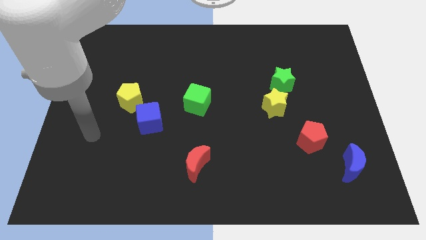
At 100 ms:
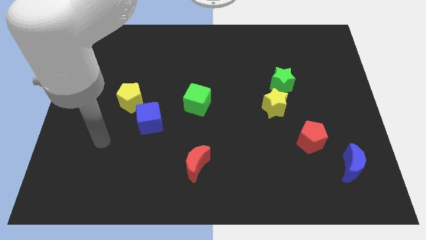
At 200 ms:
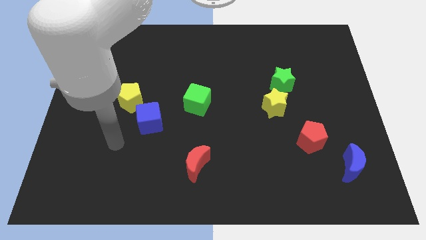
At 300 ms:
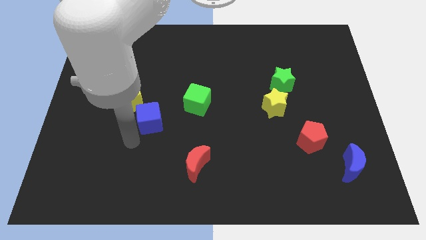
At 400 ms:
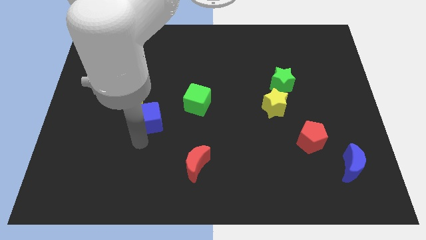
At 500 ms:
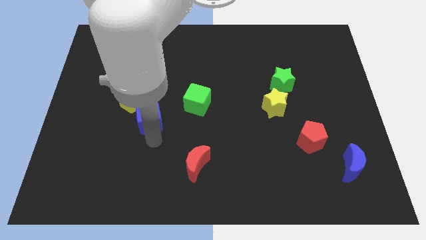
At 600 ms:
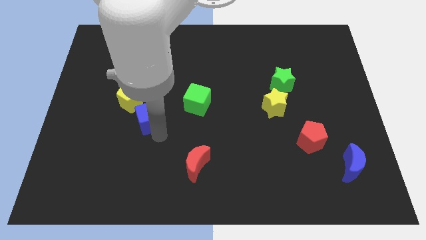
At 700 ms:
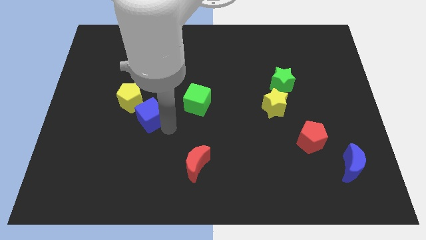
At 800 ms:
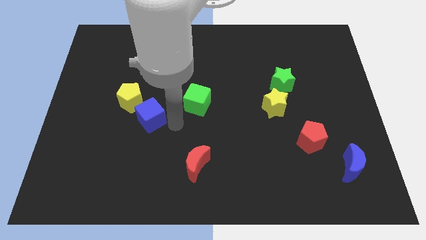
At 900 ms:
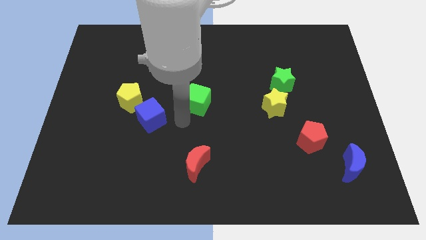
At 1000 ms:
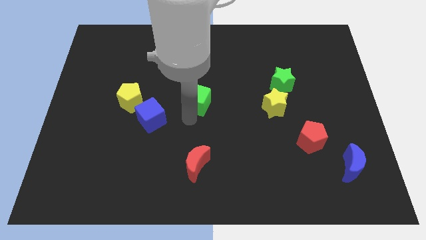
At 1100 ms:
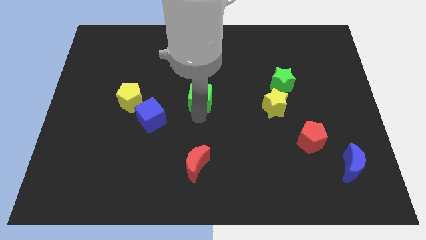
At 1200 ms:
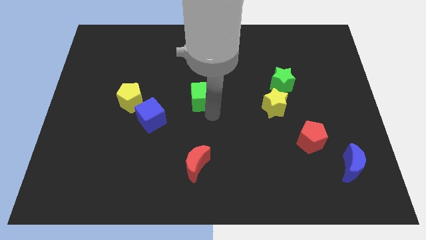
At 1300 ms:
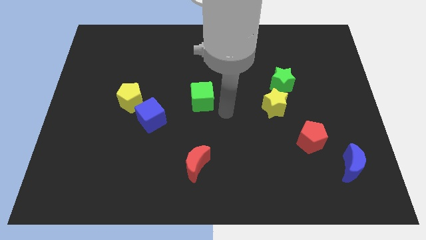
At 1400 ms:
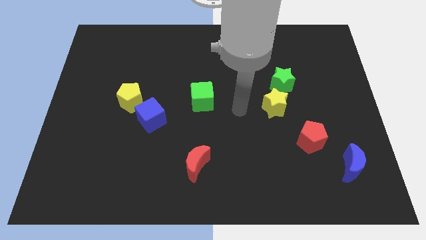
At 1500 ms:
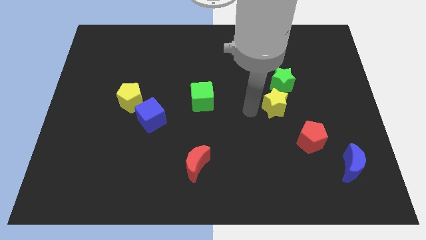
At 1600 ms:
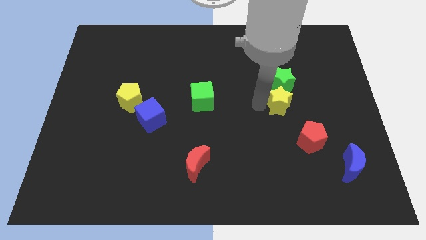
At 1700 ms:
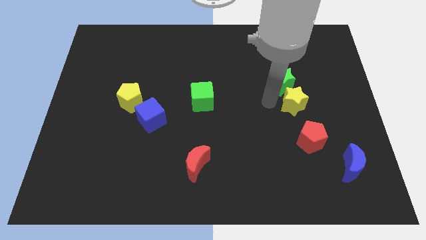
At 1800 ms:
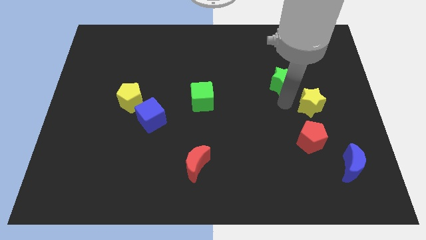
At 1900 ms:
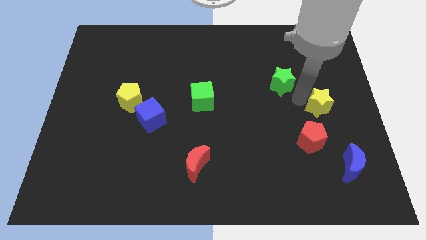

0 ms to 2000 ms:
separate the green star from the yellow star

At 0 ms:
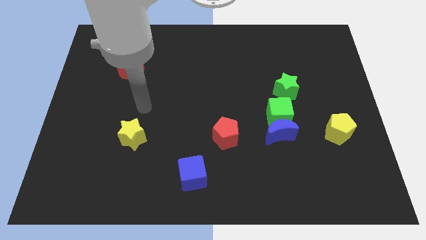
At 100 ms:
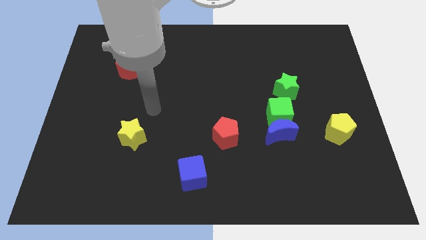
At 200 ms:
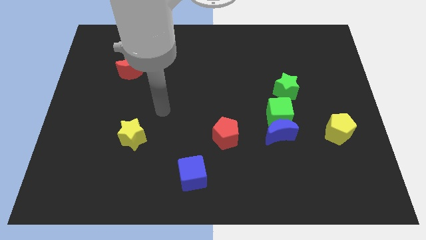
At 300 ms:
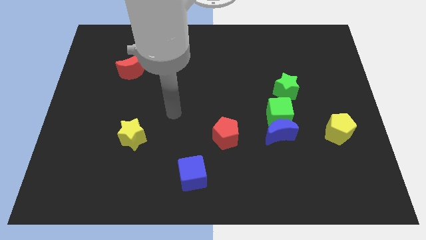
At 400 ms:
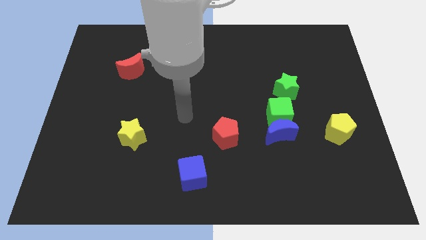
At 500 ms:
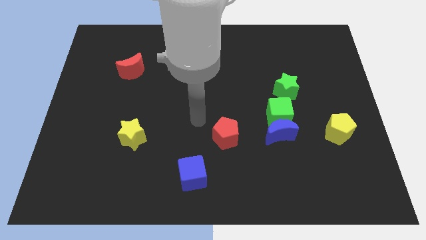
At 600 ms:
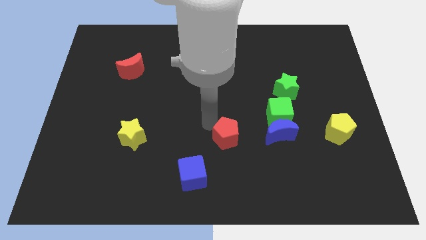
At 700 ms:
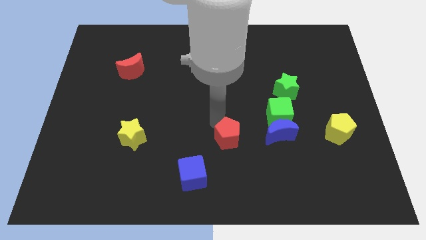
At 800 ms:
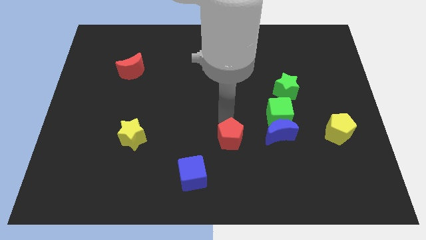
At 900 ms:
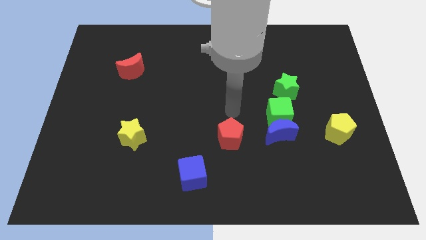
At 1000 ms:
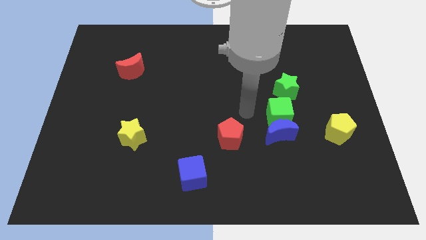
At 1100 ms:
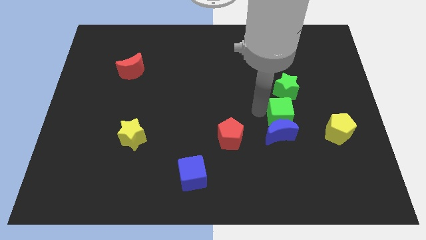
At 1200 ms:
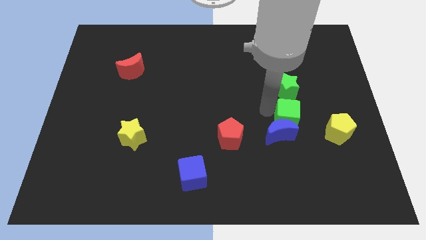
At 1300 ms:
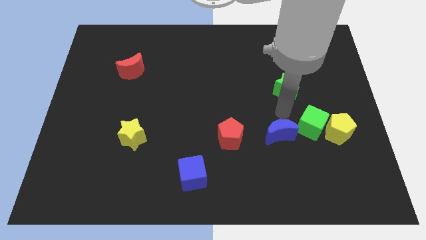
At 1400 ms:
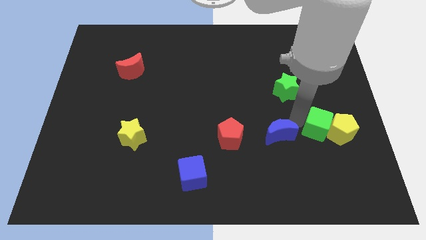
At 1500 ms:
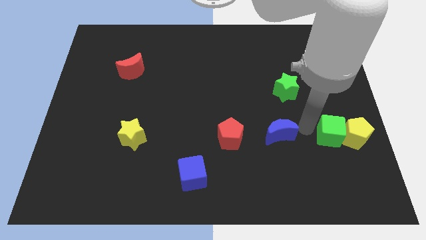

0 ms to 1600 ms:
move the blue moon away from the green cube

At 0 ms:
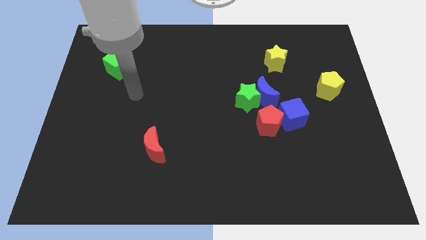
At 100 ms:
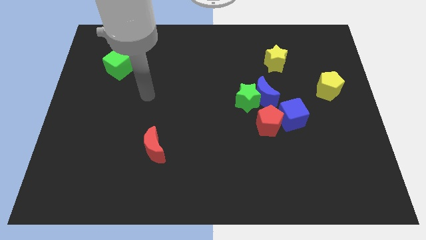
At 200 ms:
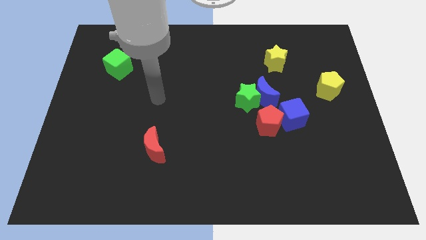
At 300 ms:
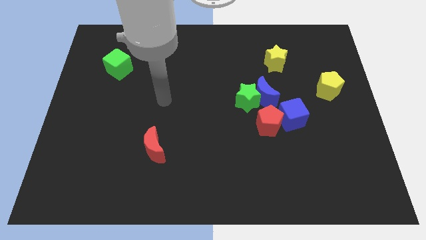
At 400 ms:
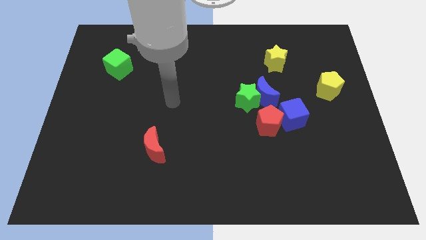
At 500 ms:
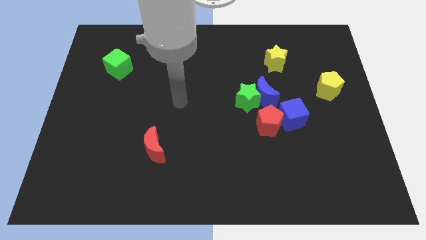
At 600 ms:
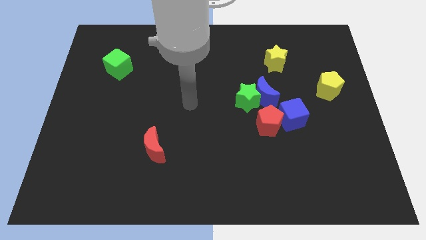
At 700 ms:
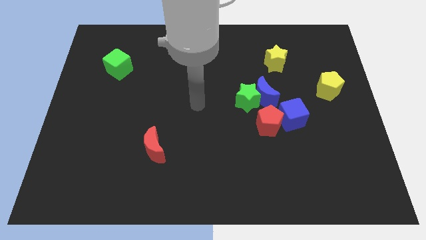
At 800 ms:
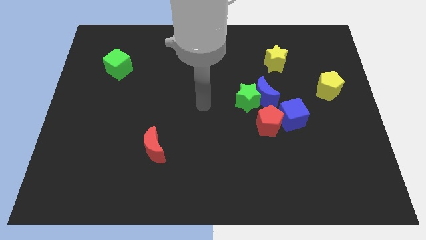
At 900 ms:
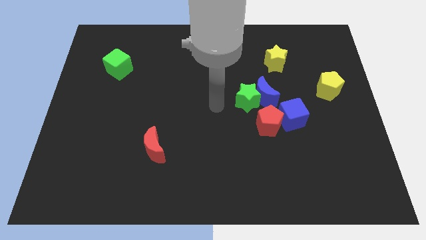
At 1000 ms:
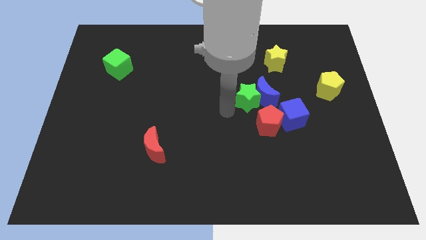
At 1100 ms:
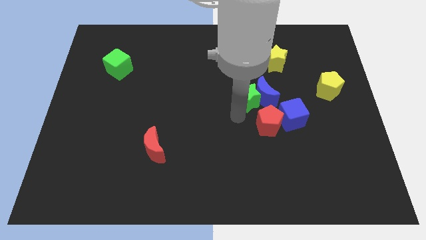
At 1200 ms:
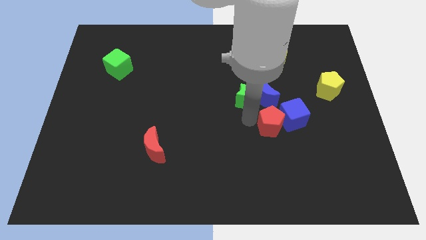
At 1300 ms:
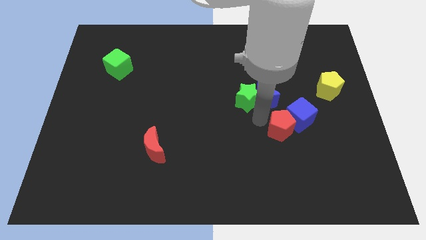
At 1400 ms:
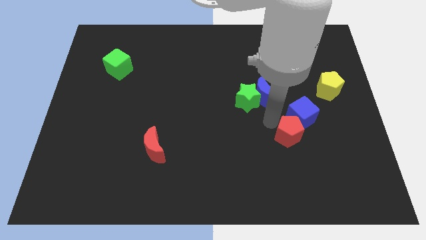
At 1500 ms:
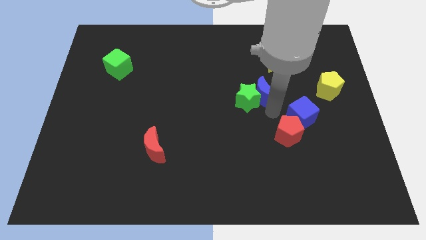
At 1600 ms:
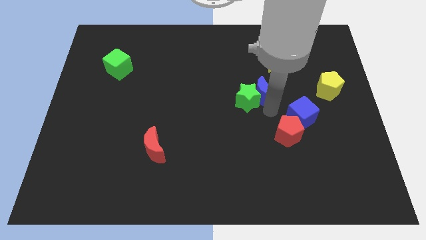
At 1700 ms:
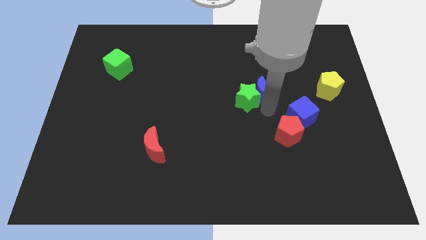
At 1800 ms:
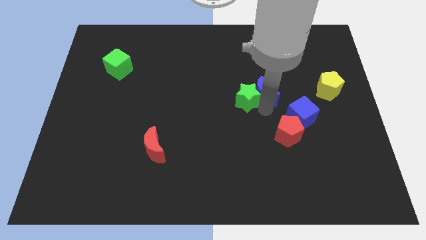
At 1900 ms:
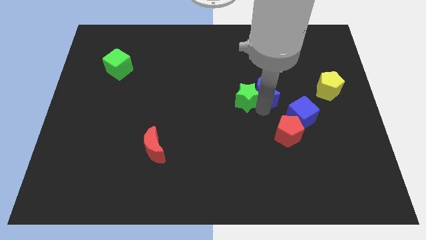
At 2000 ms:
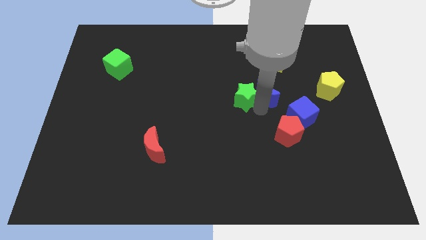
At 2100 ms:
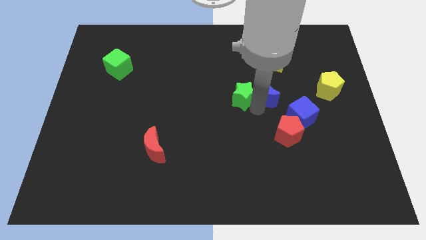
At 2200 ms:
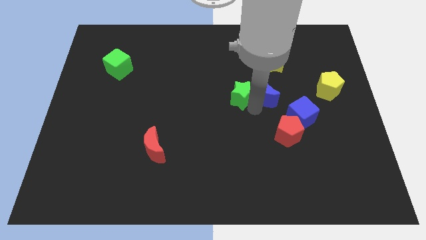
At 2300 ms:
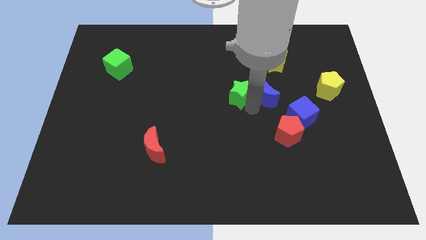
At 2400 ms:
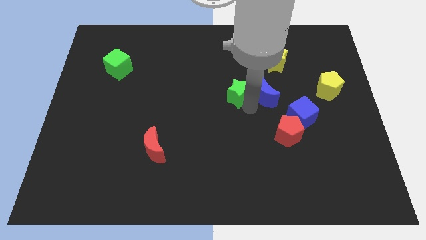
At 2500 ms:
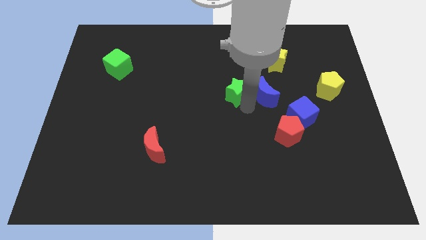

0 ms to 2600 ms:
separate the green star from the blue moon and red pentagon

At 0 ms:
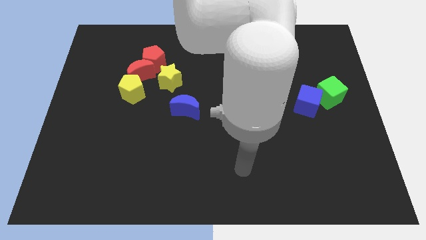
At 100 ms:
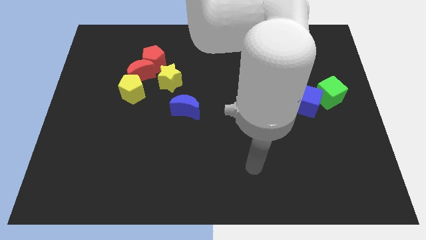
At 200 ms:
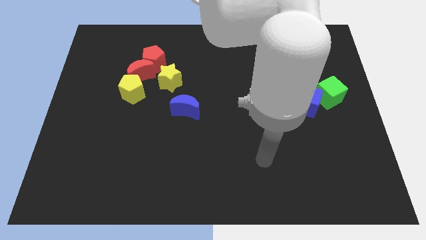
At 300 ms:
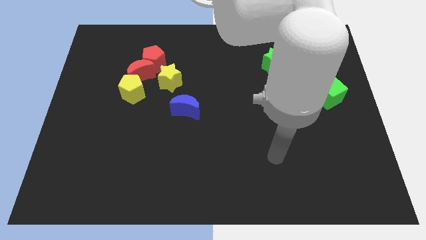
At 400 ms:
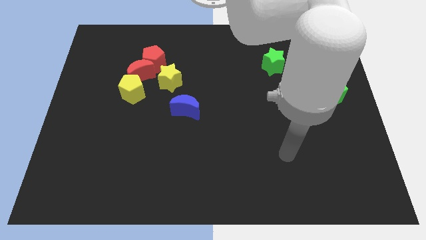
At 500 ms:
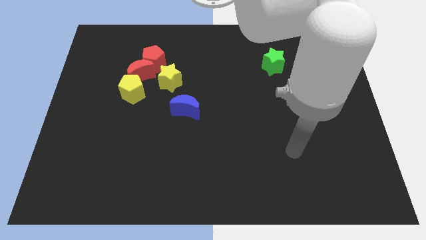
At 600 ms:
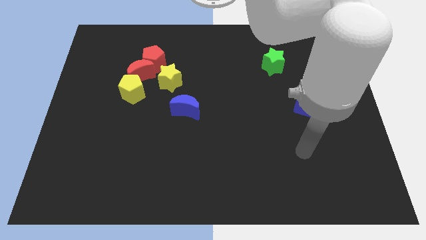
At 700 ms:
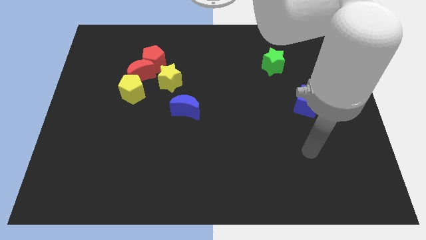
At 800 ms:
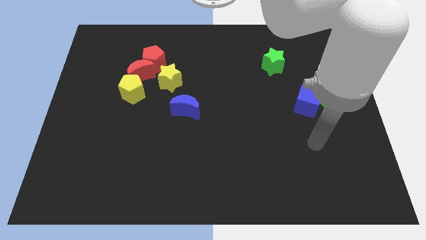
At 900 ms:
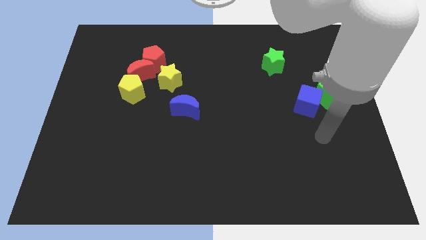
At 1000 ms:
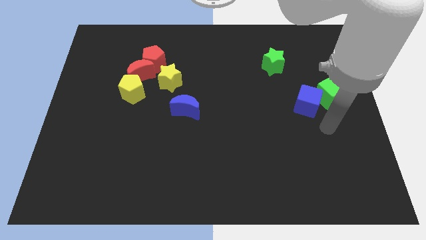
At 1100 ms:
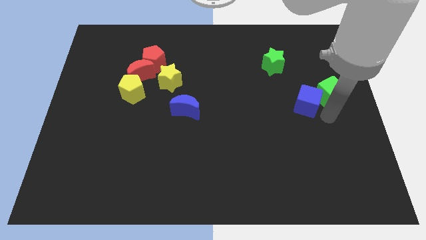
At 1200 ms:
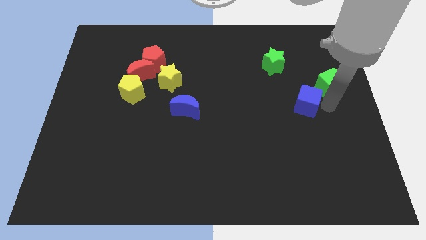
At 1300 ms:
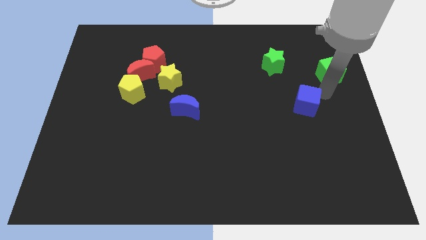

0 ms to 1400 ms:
move the blue cube away from the green cube

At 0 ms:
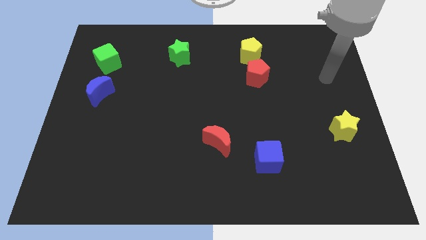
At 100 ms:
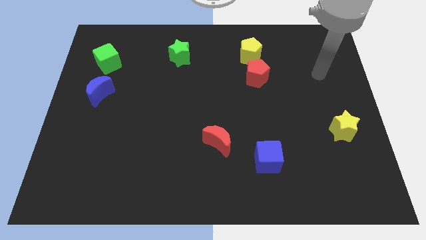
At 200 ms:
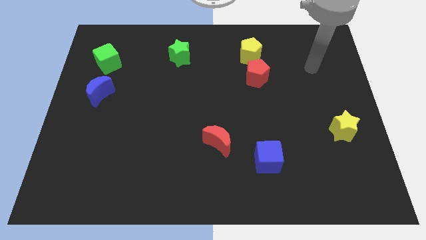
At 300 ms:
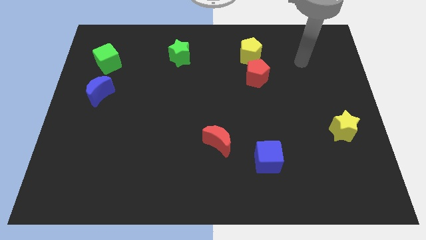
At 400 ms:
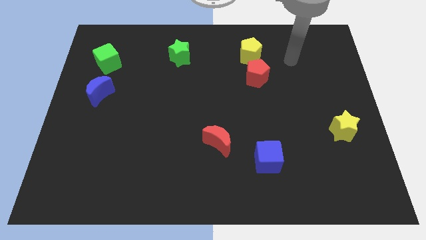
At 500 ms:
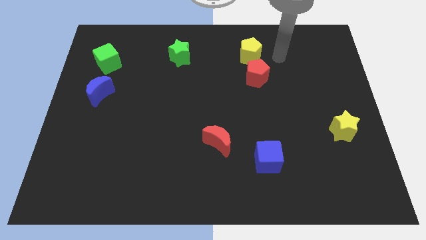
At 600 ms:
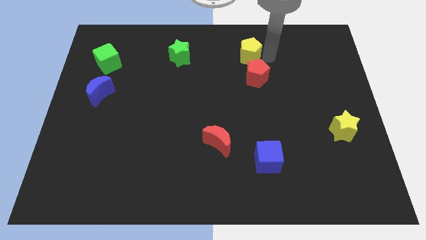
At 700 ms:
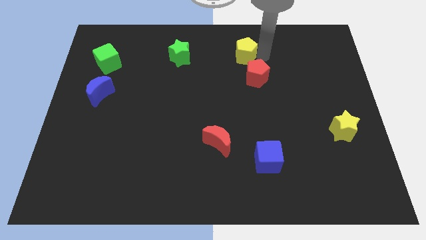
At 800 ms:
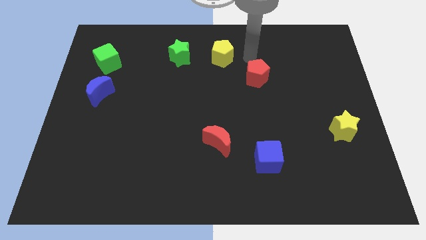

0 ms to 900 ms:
move the red pentagon away from the yellow pentagon

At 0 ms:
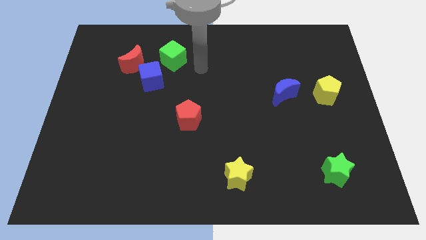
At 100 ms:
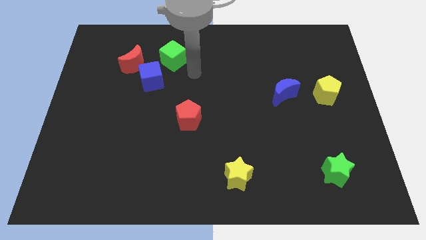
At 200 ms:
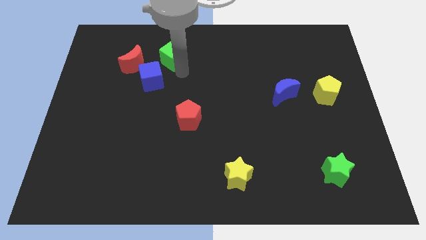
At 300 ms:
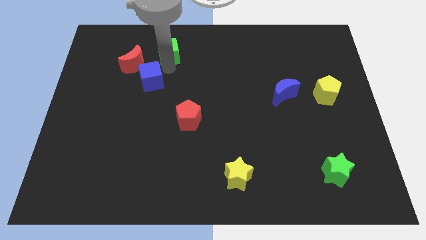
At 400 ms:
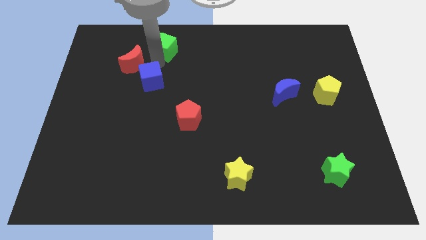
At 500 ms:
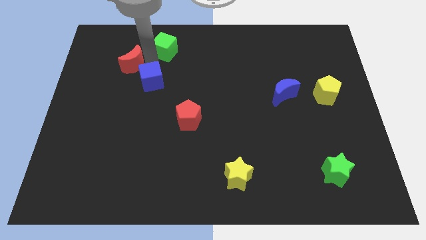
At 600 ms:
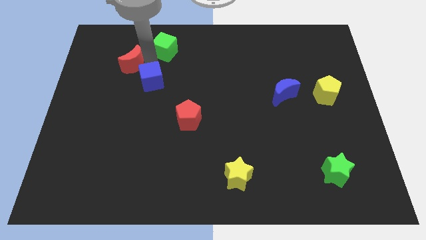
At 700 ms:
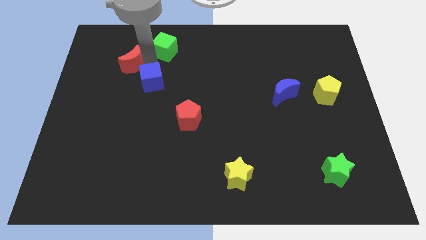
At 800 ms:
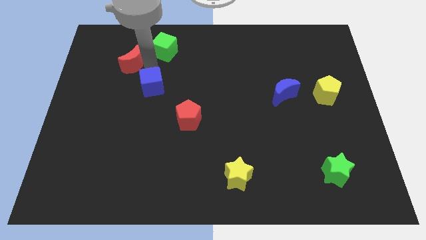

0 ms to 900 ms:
separate the blue cube from the red moon and green cube

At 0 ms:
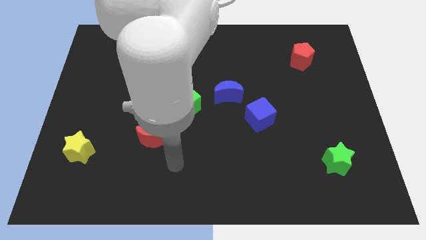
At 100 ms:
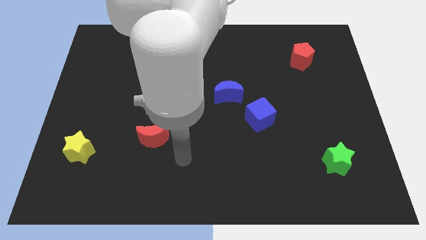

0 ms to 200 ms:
separate the blue cube from the blue moon
